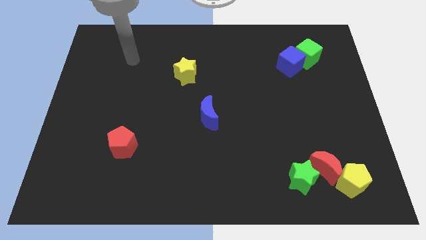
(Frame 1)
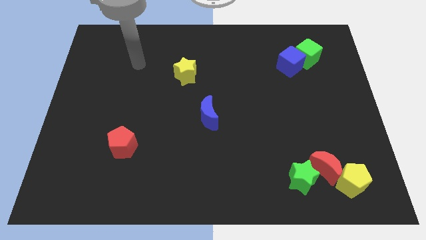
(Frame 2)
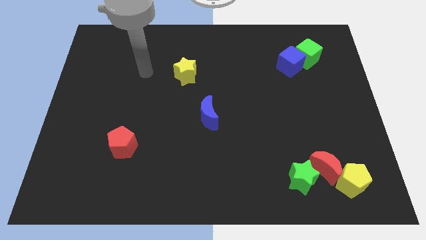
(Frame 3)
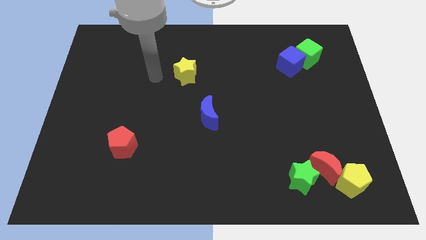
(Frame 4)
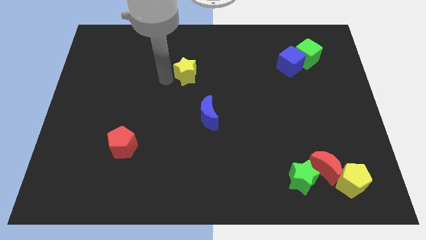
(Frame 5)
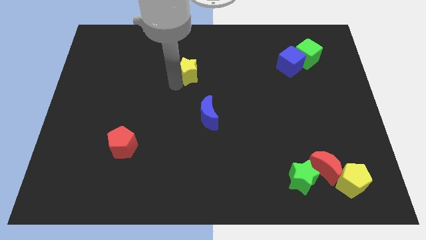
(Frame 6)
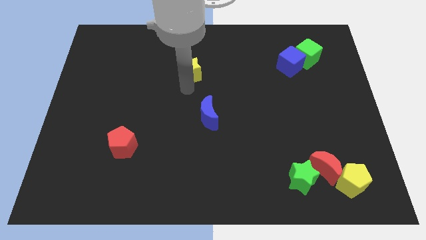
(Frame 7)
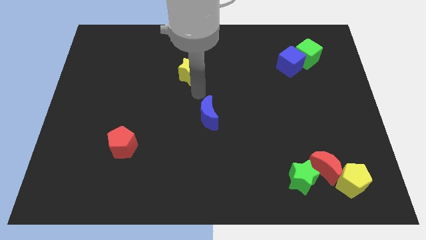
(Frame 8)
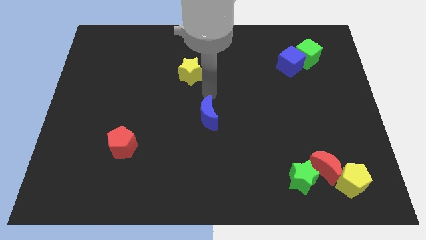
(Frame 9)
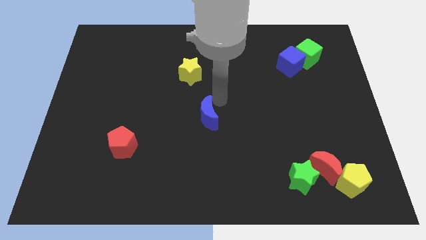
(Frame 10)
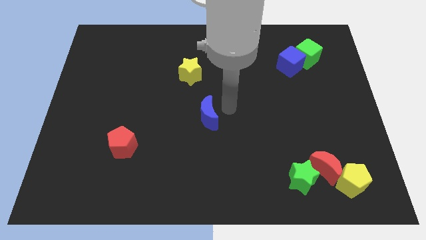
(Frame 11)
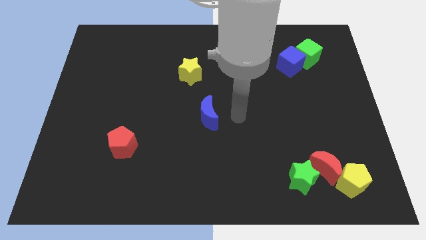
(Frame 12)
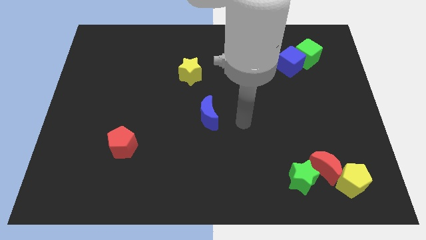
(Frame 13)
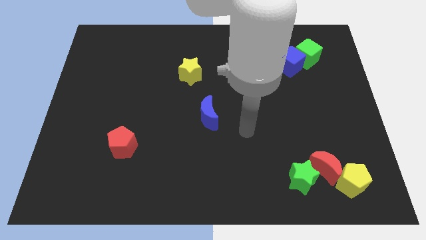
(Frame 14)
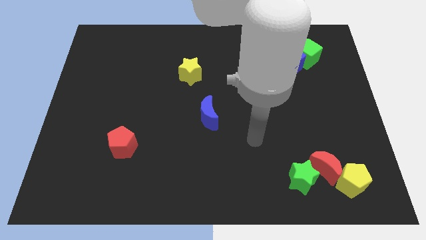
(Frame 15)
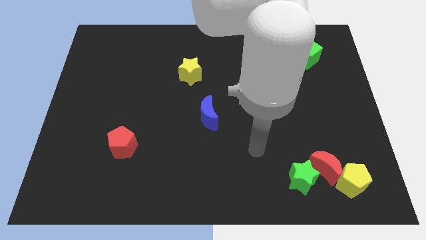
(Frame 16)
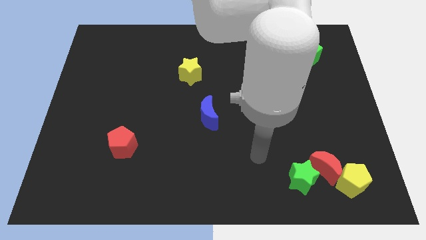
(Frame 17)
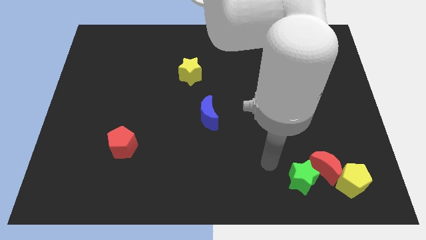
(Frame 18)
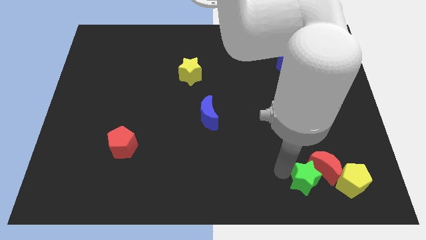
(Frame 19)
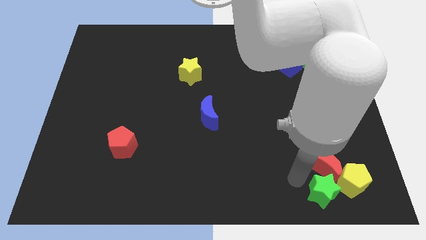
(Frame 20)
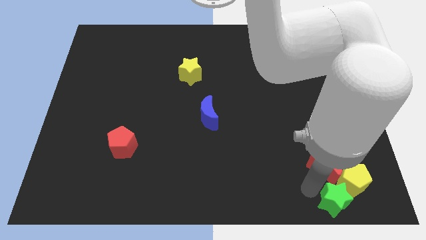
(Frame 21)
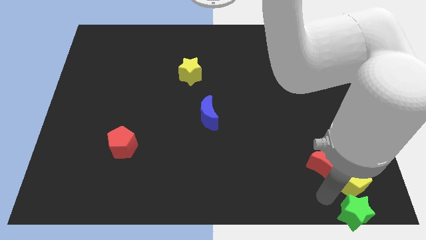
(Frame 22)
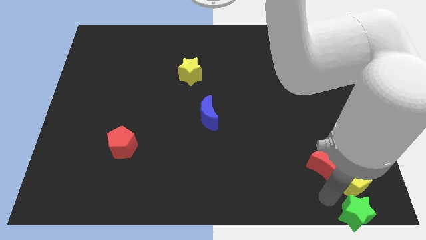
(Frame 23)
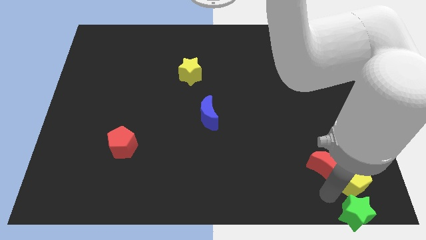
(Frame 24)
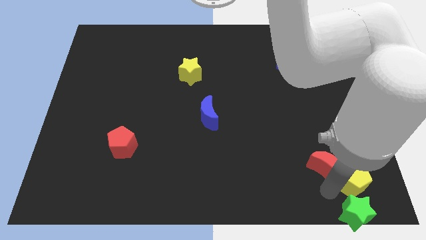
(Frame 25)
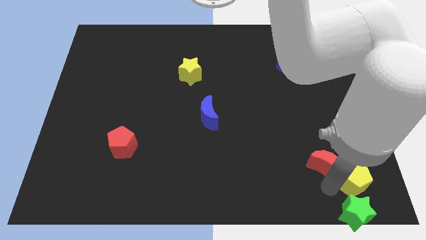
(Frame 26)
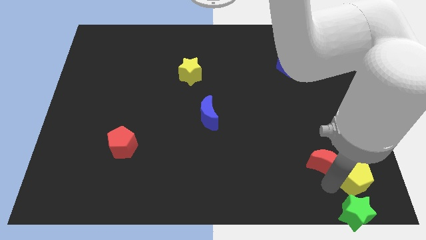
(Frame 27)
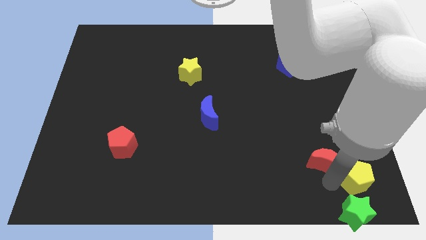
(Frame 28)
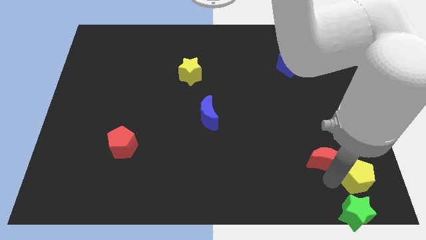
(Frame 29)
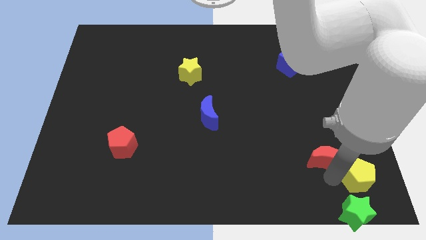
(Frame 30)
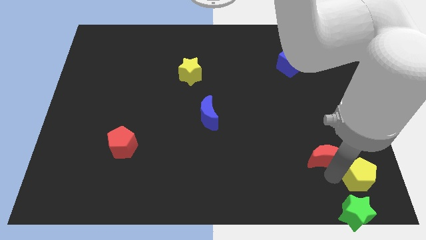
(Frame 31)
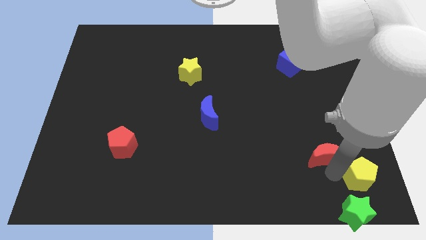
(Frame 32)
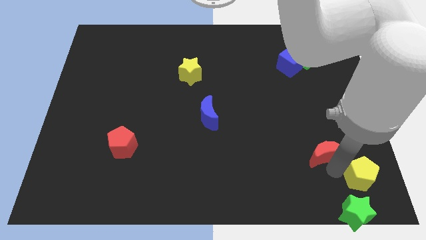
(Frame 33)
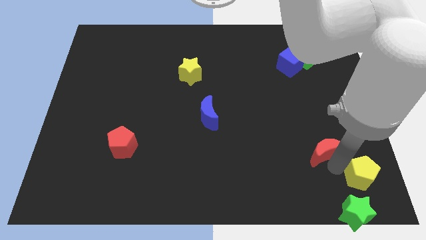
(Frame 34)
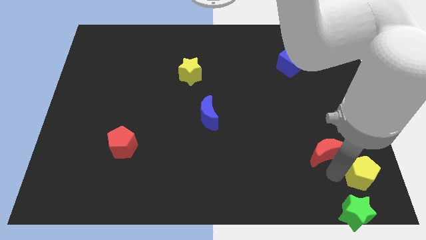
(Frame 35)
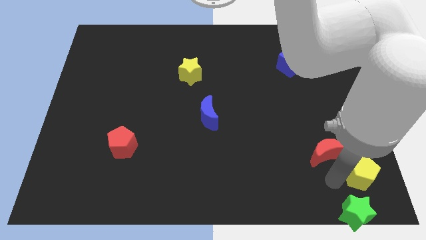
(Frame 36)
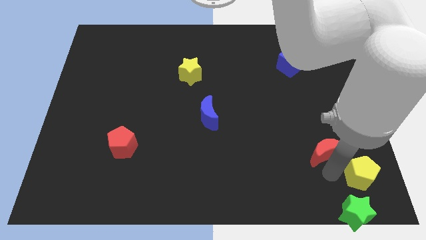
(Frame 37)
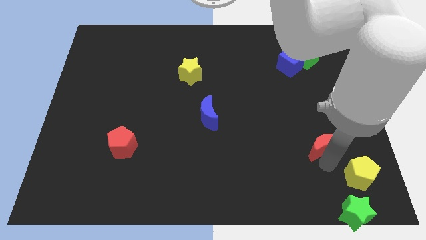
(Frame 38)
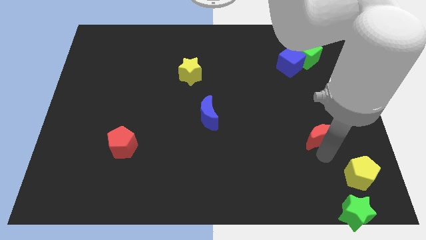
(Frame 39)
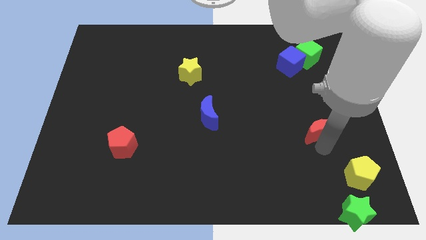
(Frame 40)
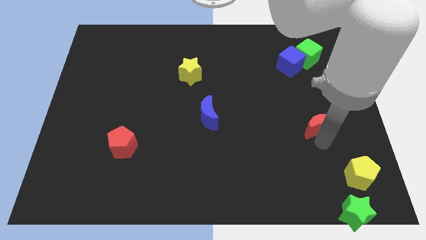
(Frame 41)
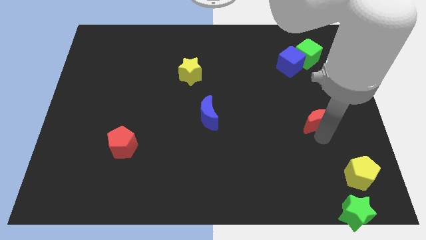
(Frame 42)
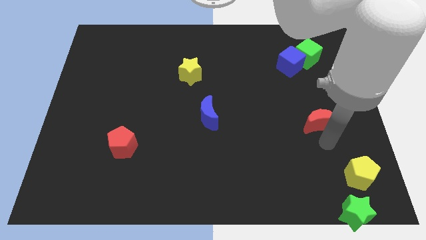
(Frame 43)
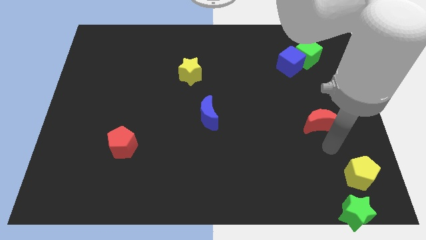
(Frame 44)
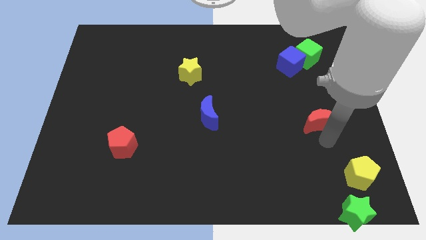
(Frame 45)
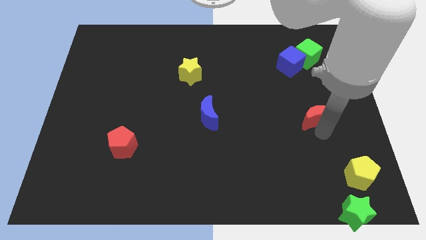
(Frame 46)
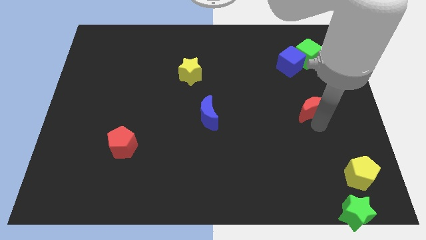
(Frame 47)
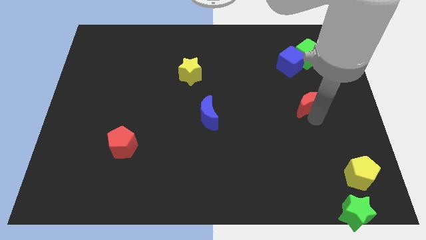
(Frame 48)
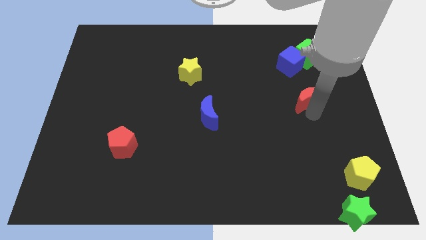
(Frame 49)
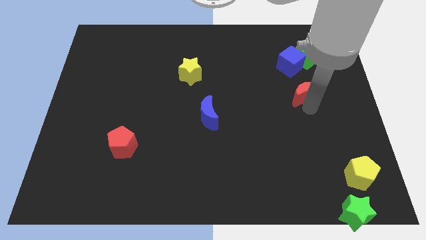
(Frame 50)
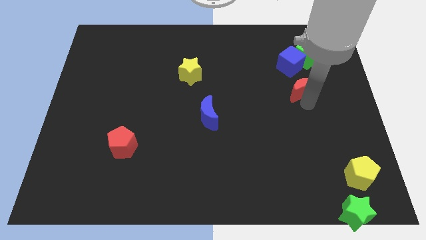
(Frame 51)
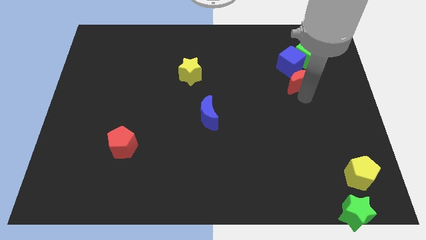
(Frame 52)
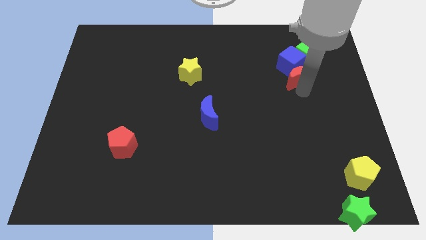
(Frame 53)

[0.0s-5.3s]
slide the red moon towards the blue cube

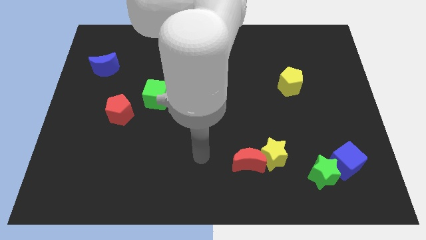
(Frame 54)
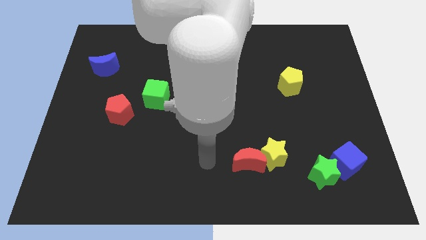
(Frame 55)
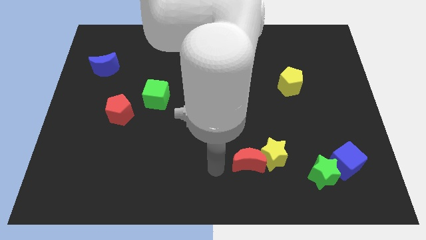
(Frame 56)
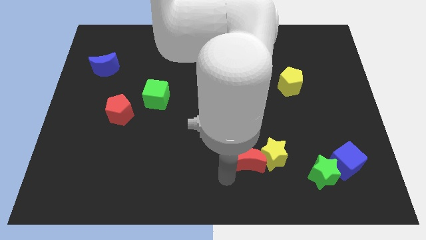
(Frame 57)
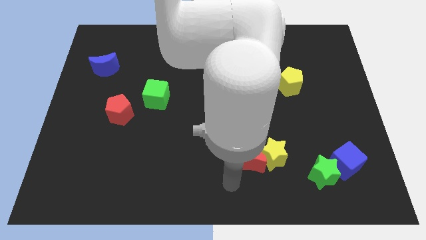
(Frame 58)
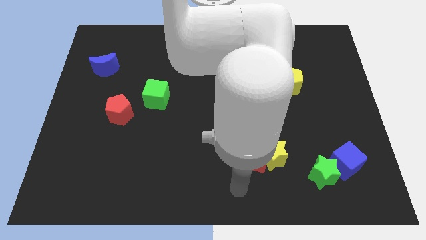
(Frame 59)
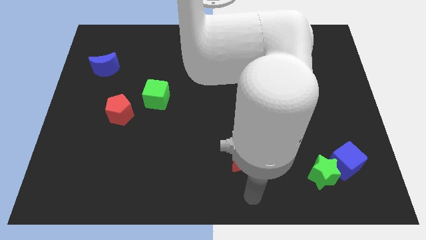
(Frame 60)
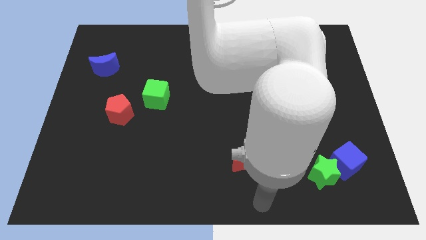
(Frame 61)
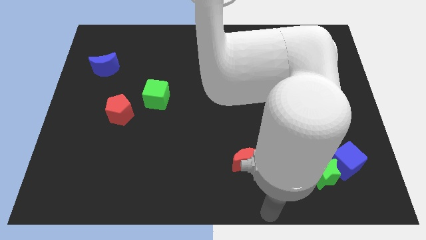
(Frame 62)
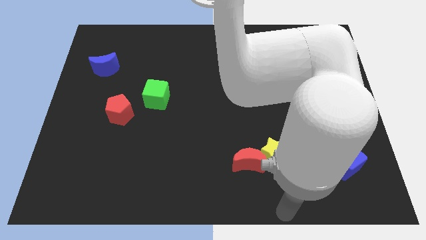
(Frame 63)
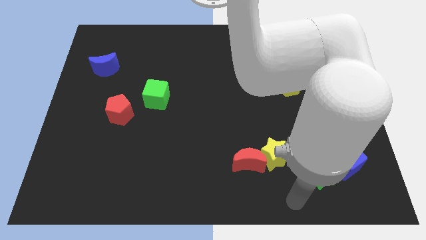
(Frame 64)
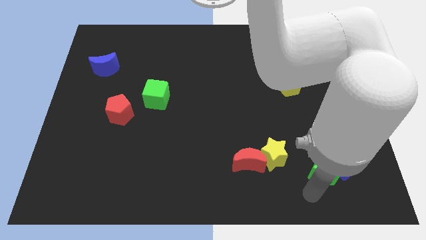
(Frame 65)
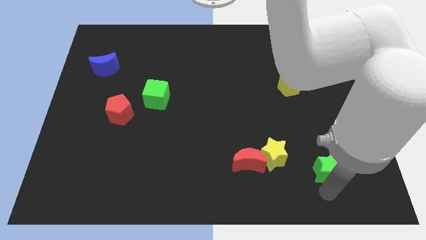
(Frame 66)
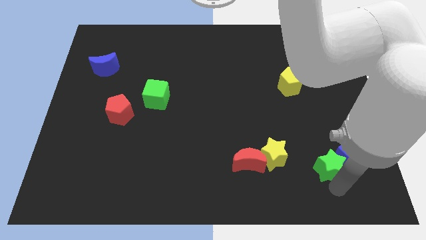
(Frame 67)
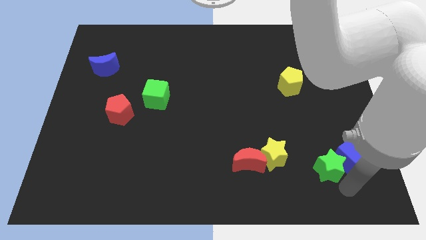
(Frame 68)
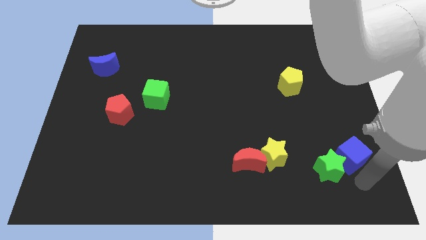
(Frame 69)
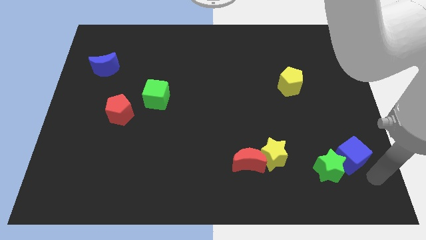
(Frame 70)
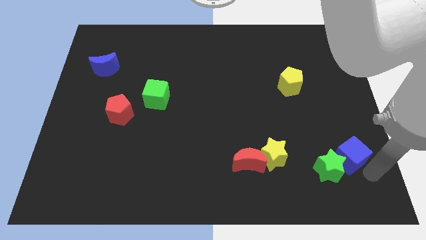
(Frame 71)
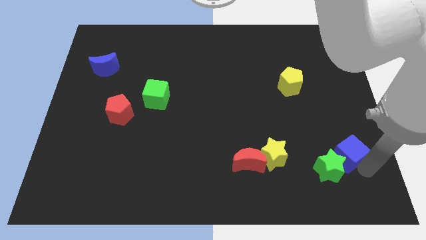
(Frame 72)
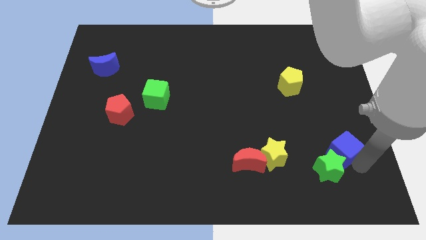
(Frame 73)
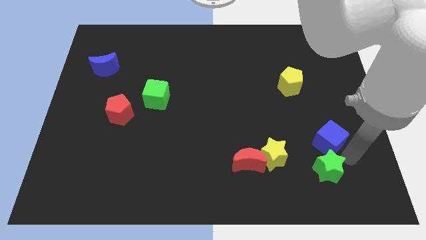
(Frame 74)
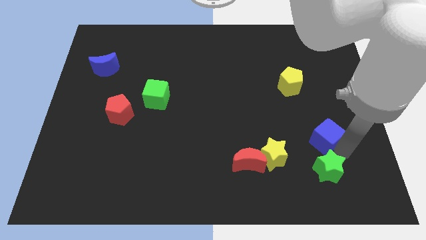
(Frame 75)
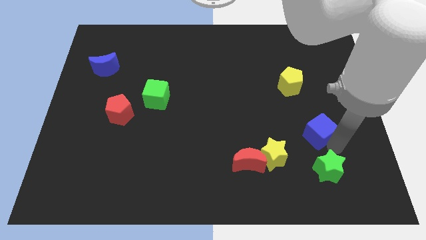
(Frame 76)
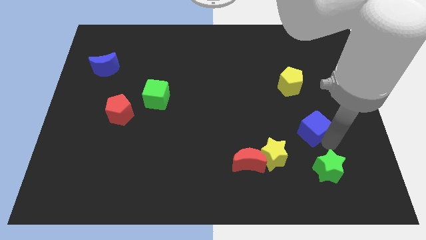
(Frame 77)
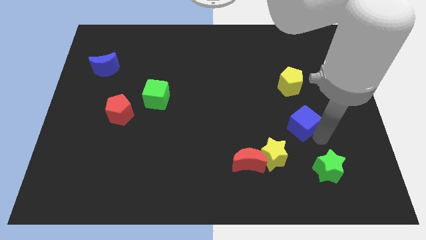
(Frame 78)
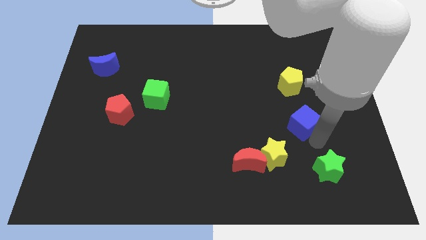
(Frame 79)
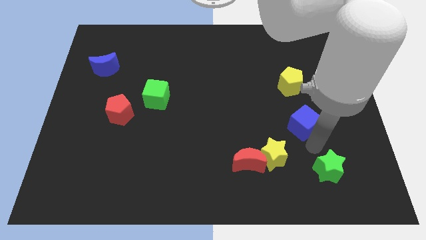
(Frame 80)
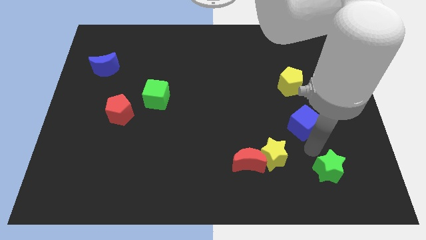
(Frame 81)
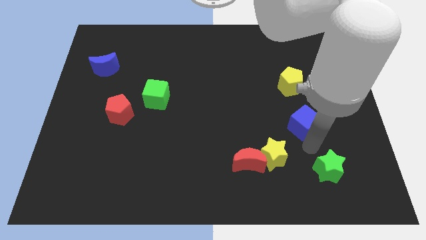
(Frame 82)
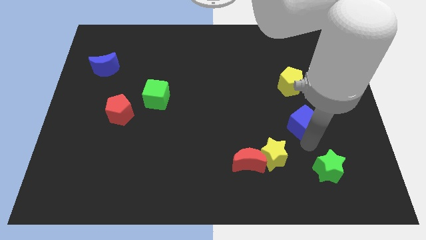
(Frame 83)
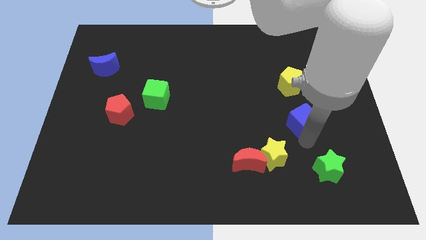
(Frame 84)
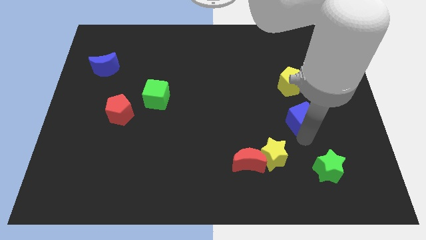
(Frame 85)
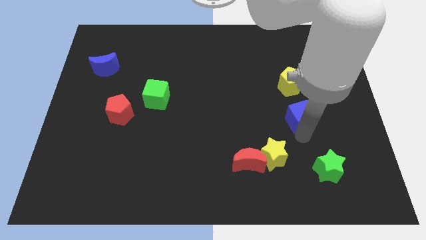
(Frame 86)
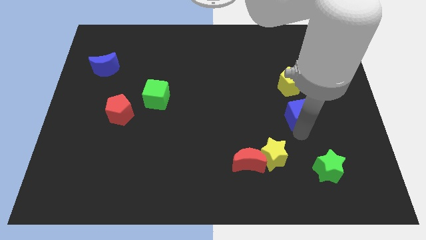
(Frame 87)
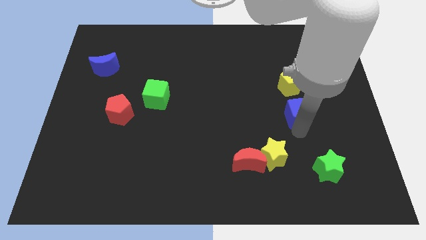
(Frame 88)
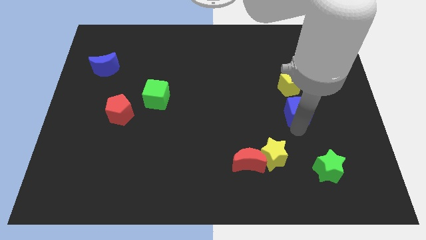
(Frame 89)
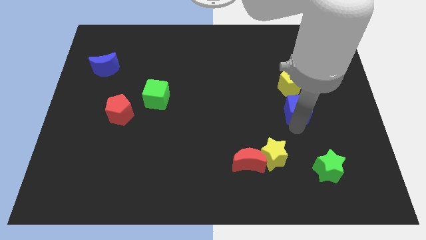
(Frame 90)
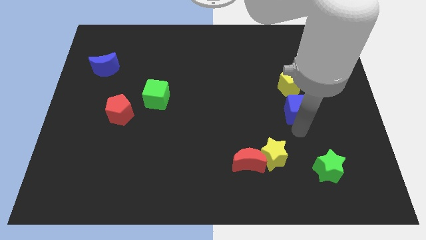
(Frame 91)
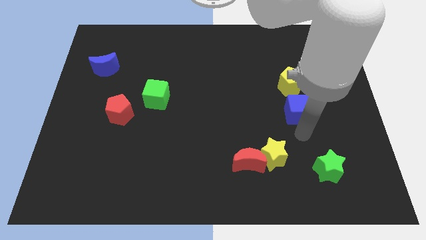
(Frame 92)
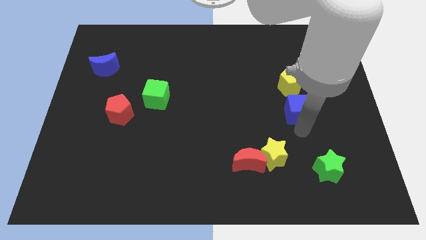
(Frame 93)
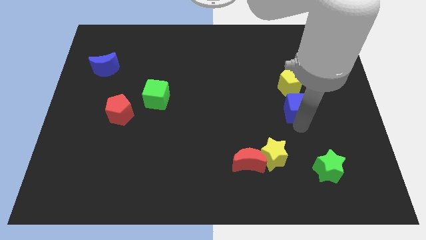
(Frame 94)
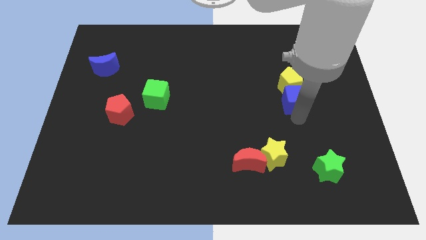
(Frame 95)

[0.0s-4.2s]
put the blue cube close to the yellow pentagon
